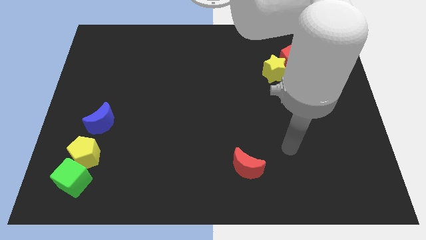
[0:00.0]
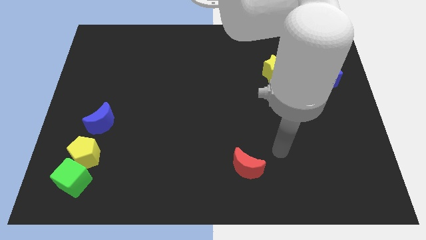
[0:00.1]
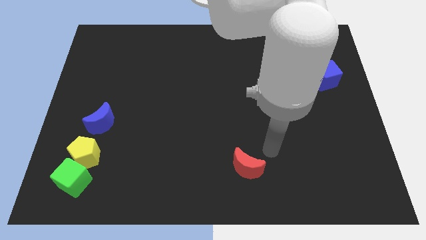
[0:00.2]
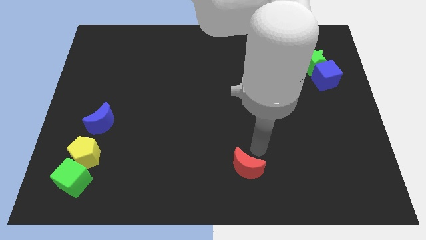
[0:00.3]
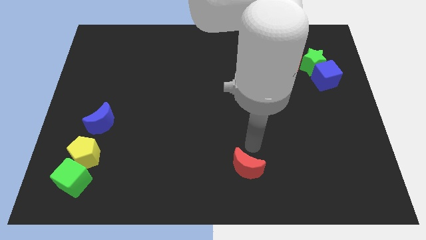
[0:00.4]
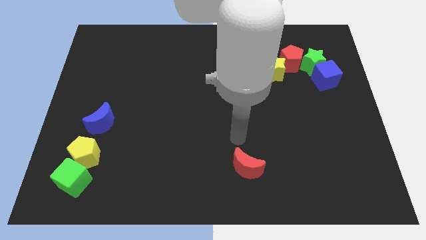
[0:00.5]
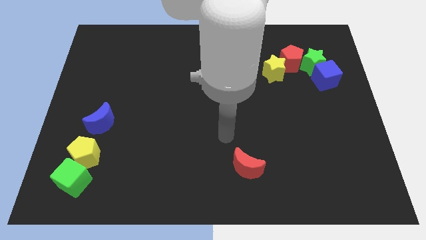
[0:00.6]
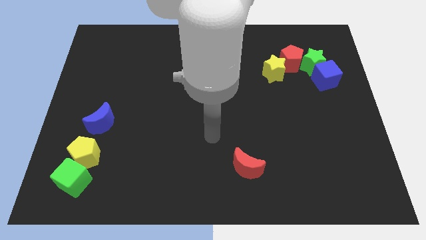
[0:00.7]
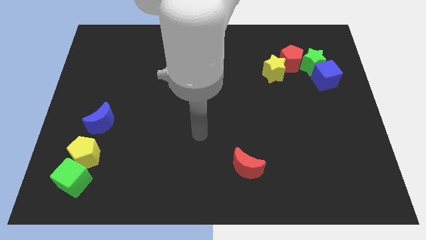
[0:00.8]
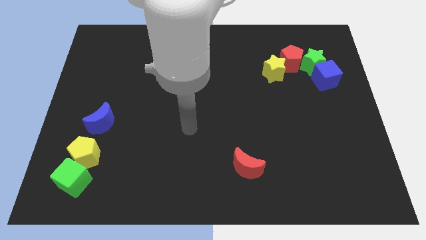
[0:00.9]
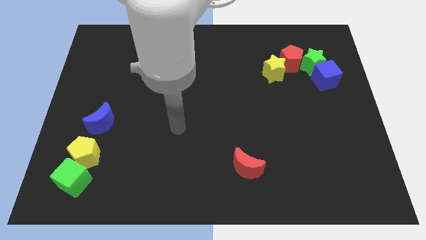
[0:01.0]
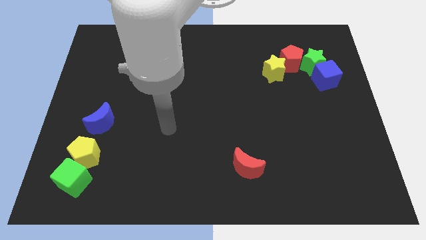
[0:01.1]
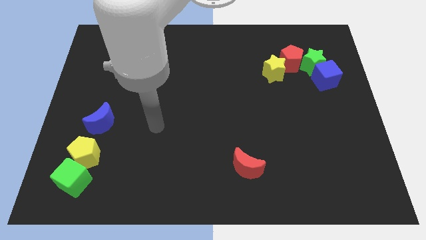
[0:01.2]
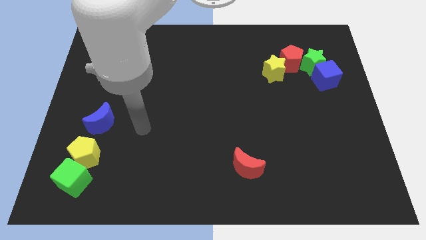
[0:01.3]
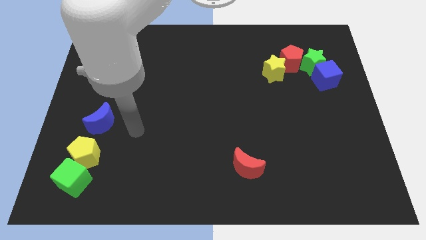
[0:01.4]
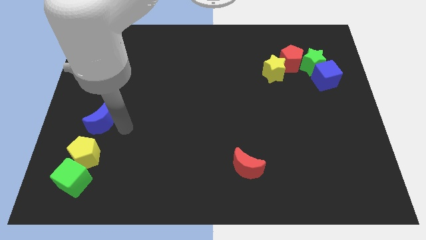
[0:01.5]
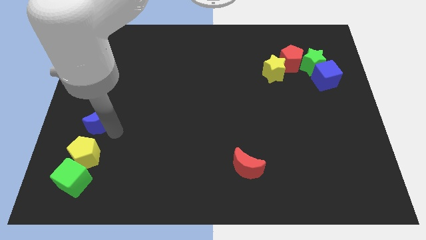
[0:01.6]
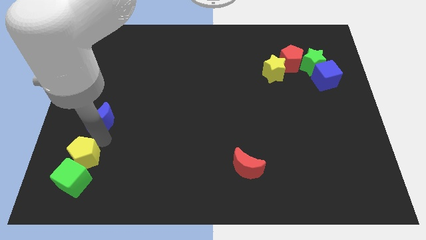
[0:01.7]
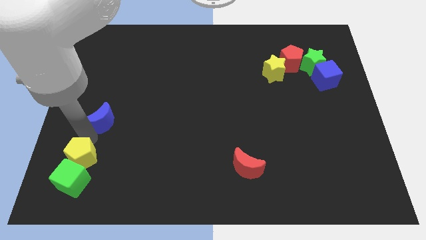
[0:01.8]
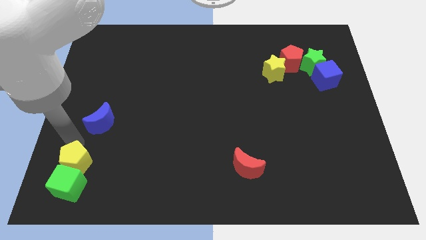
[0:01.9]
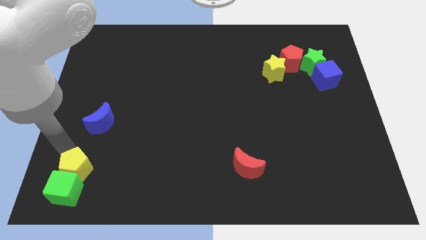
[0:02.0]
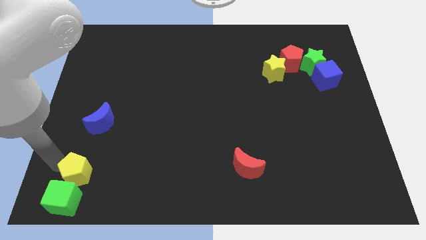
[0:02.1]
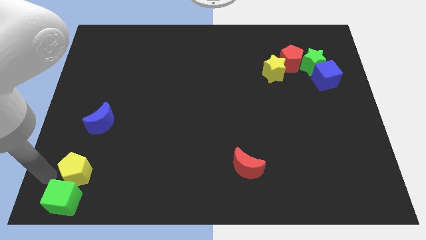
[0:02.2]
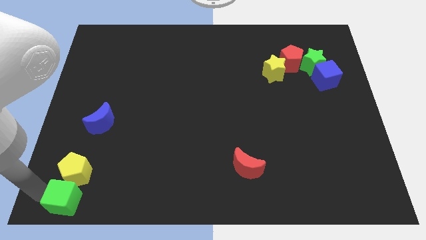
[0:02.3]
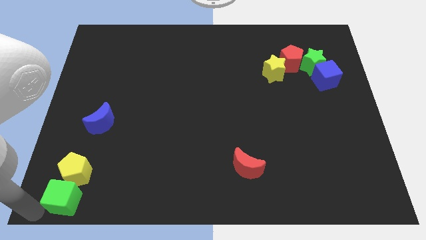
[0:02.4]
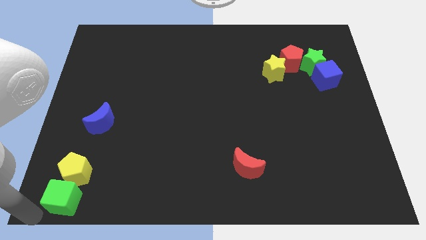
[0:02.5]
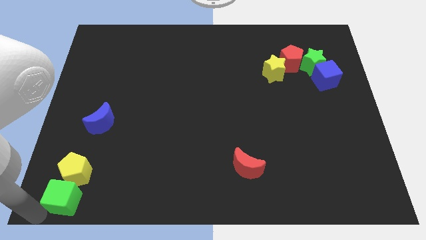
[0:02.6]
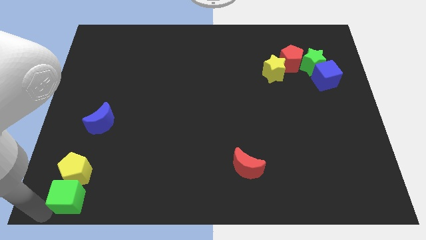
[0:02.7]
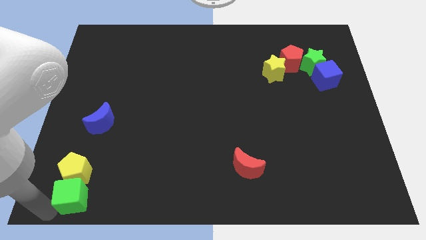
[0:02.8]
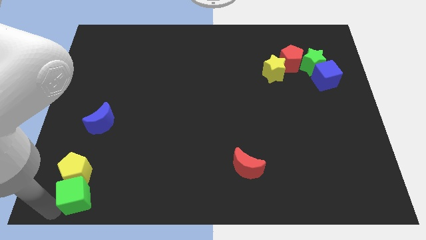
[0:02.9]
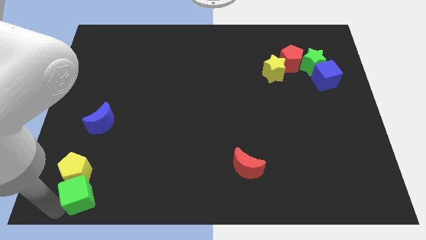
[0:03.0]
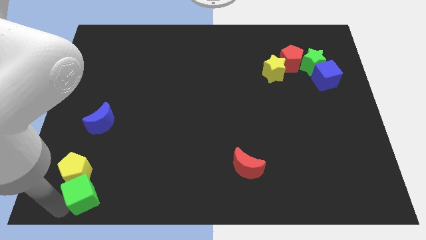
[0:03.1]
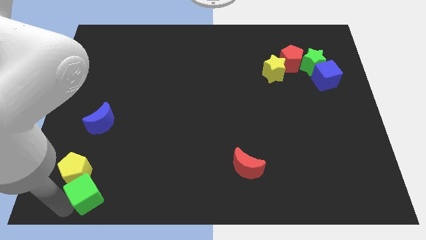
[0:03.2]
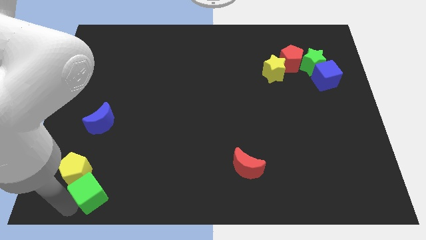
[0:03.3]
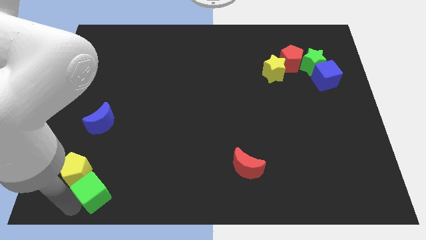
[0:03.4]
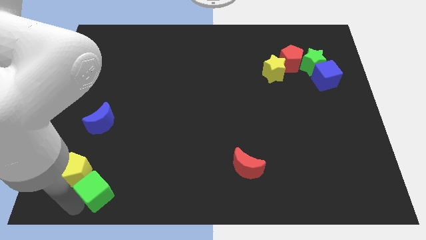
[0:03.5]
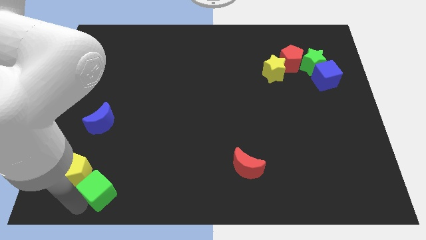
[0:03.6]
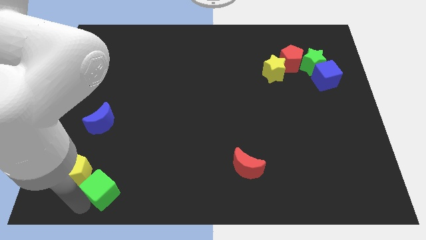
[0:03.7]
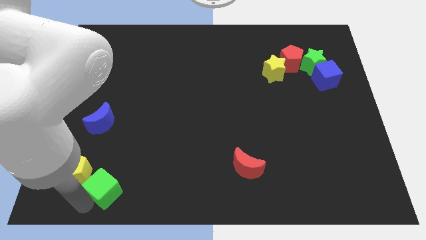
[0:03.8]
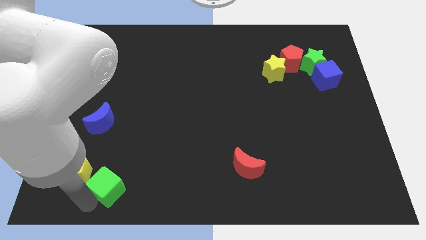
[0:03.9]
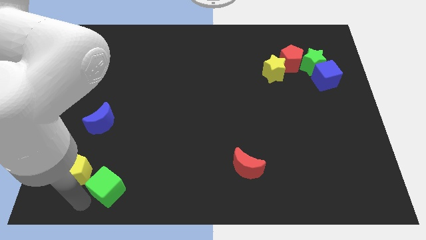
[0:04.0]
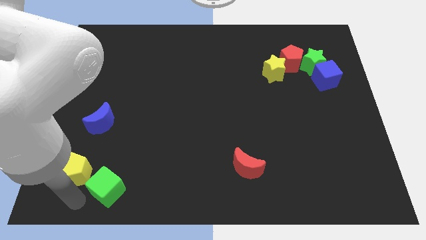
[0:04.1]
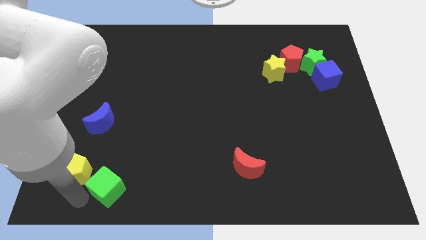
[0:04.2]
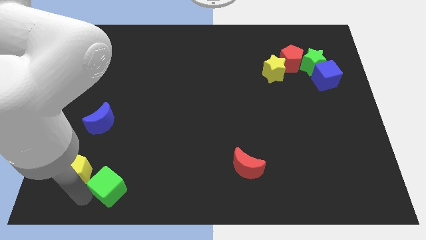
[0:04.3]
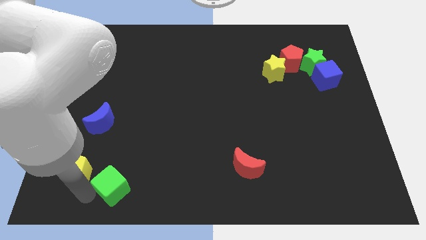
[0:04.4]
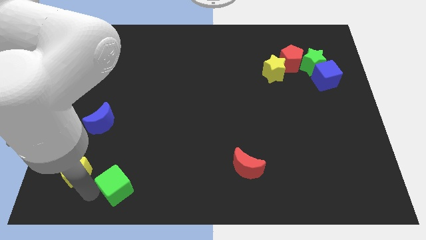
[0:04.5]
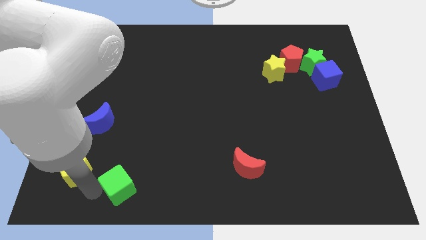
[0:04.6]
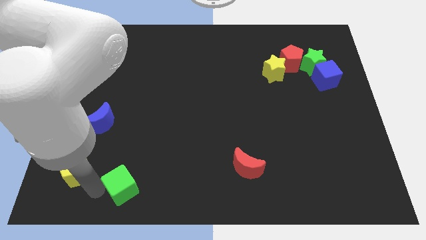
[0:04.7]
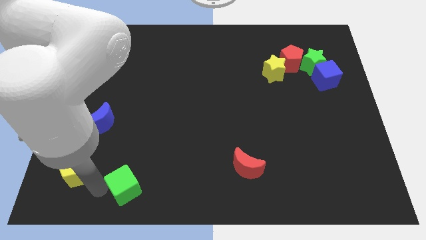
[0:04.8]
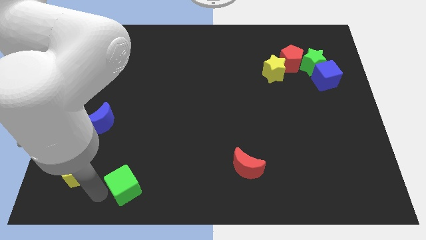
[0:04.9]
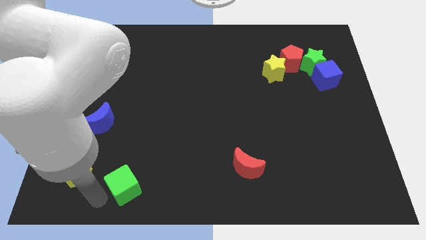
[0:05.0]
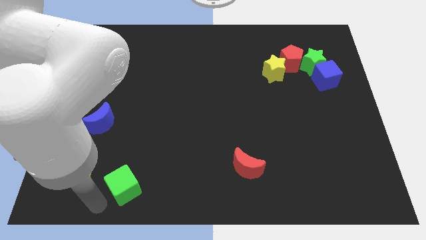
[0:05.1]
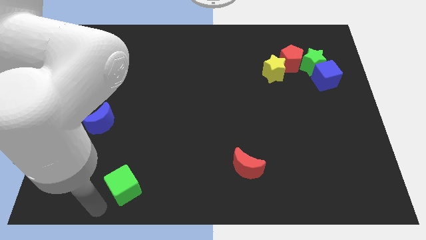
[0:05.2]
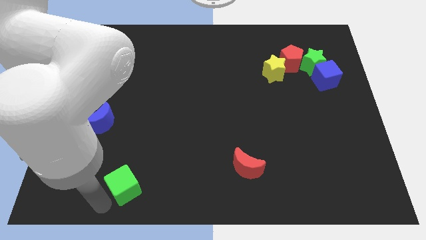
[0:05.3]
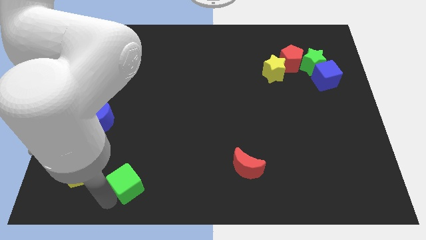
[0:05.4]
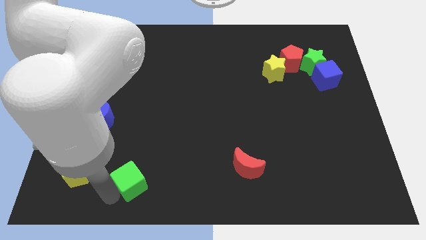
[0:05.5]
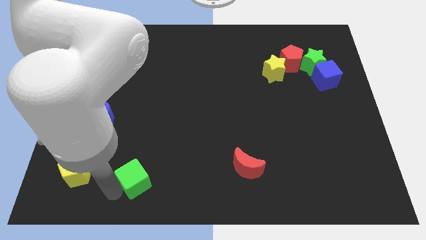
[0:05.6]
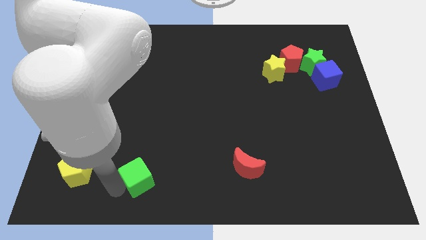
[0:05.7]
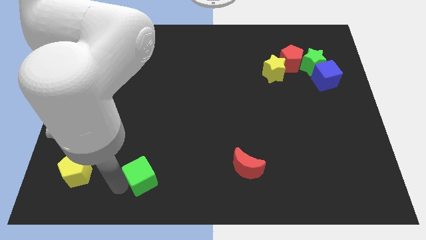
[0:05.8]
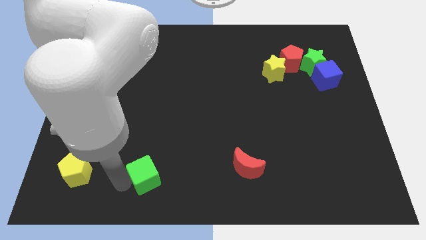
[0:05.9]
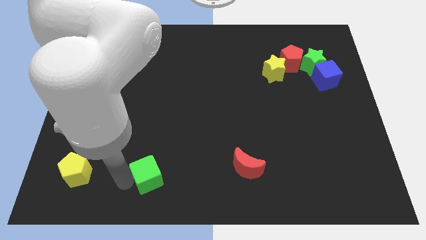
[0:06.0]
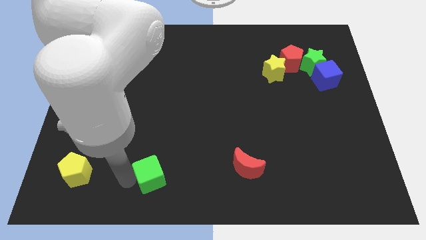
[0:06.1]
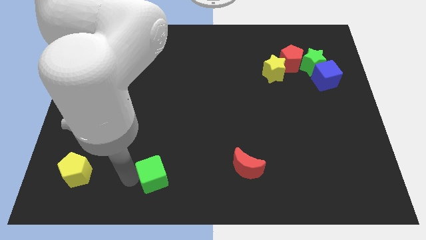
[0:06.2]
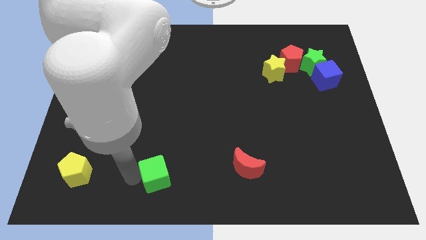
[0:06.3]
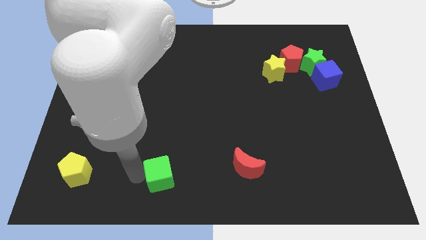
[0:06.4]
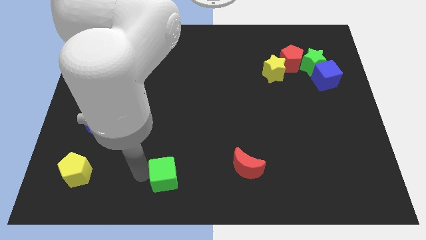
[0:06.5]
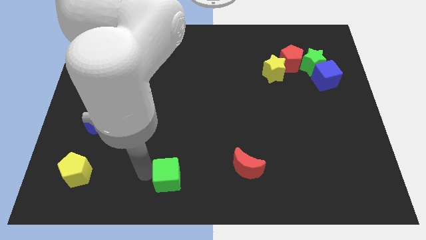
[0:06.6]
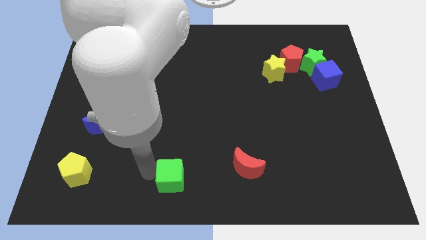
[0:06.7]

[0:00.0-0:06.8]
push the green cube right

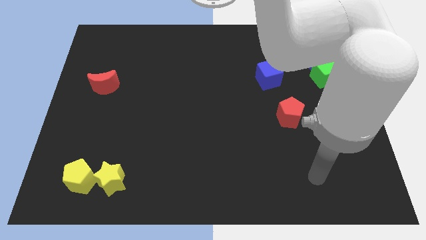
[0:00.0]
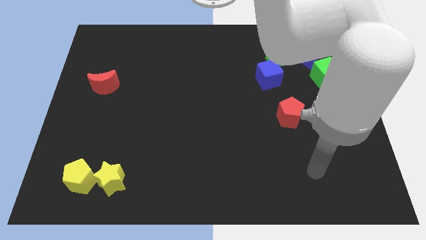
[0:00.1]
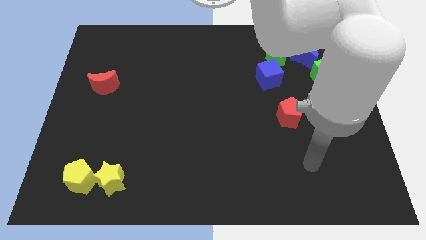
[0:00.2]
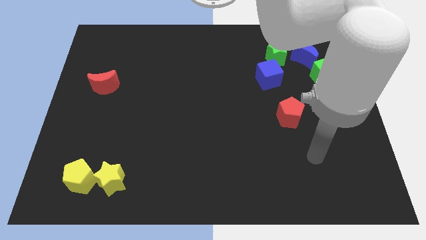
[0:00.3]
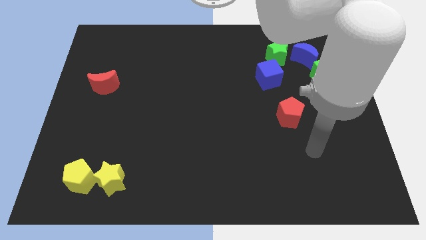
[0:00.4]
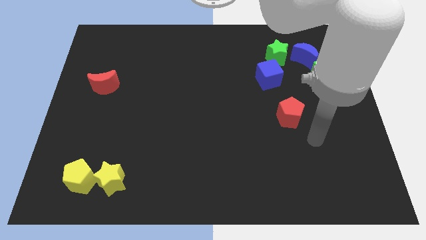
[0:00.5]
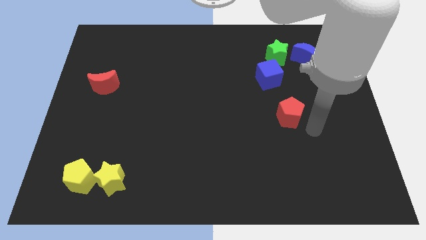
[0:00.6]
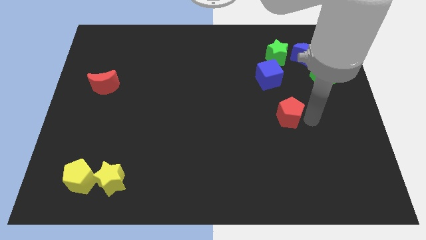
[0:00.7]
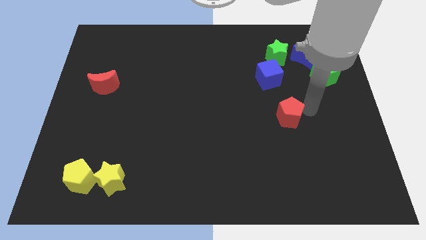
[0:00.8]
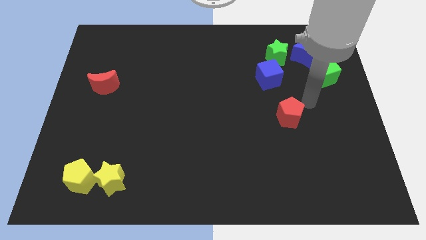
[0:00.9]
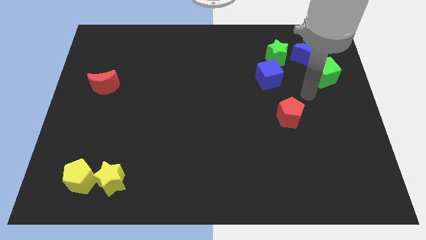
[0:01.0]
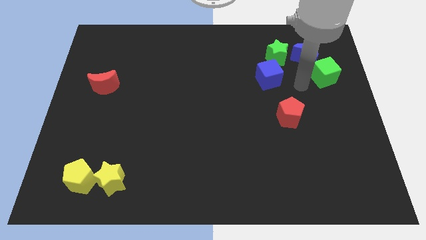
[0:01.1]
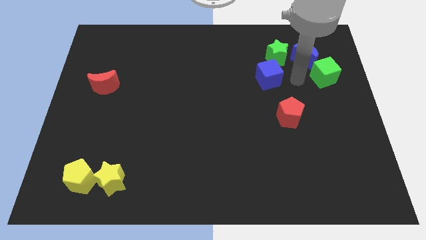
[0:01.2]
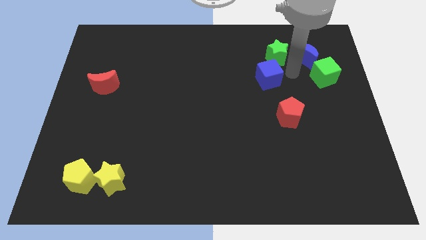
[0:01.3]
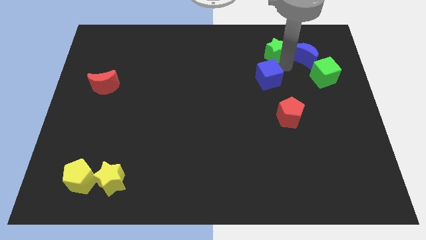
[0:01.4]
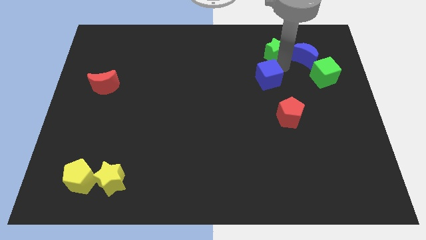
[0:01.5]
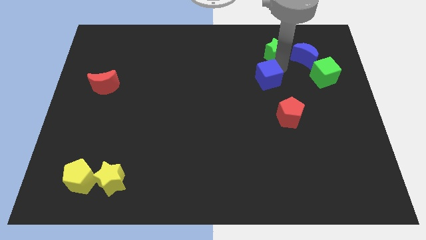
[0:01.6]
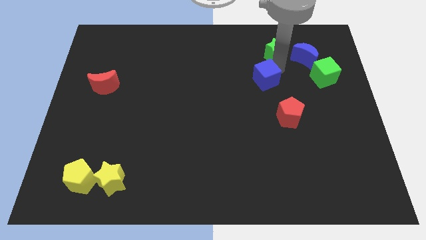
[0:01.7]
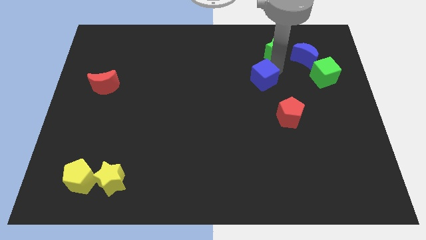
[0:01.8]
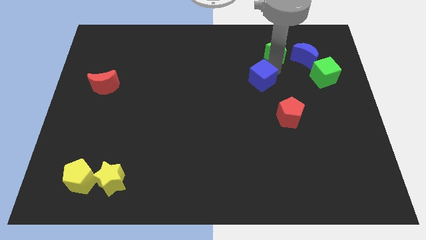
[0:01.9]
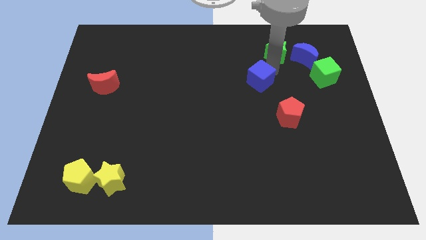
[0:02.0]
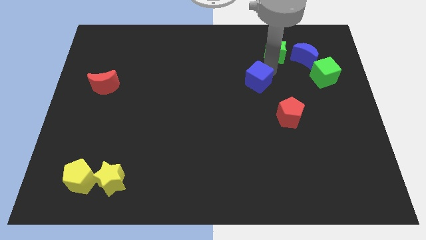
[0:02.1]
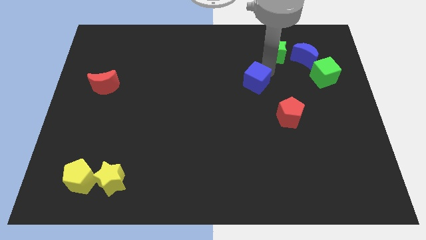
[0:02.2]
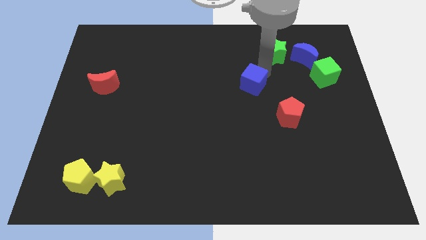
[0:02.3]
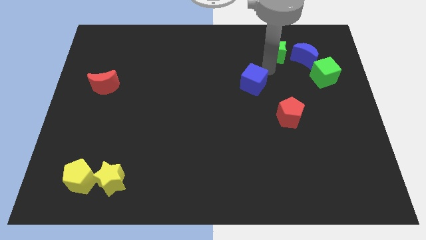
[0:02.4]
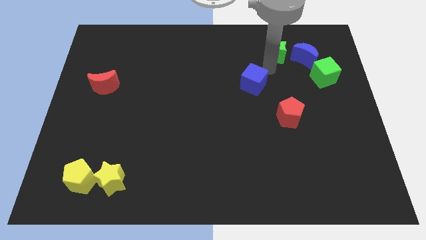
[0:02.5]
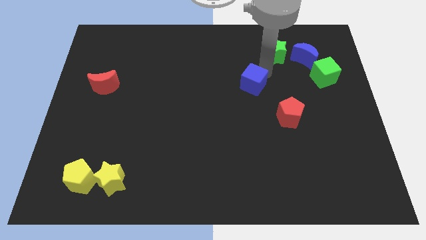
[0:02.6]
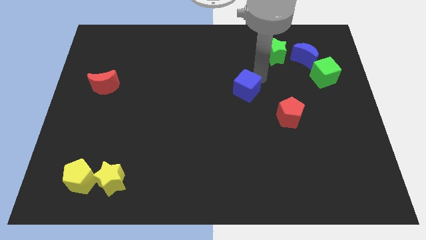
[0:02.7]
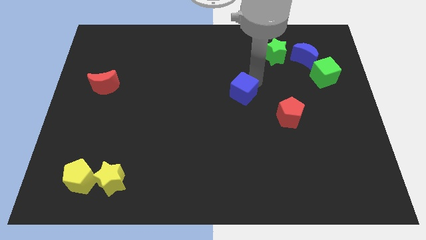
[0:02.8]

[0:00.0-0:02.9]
move the blue cube down and then left a little
